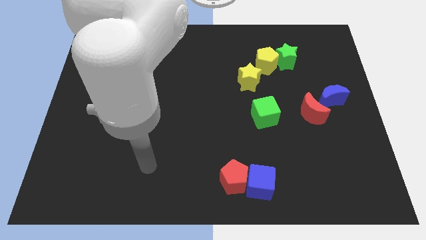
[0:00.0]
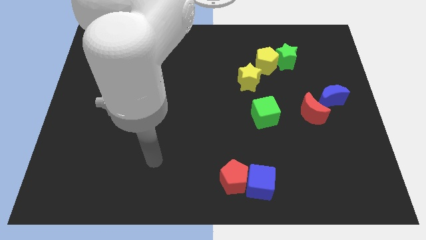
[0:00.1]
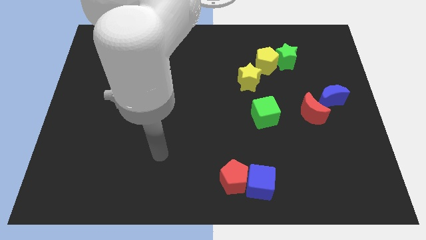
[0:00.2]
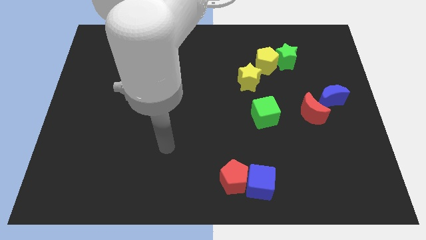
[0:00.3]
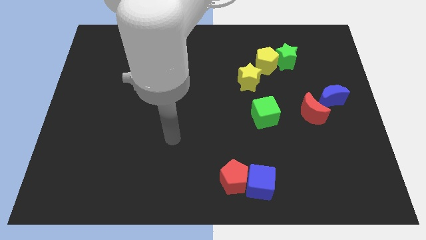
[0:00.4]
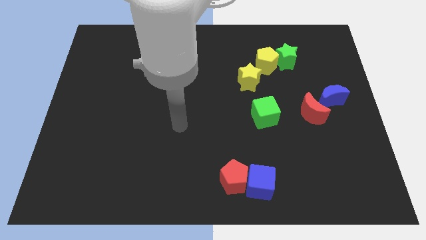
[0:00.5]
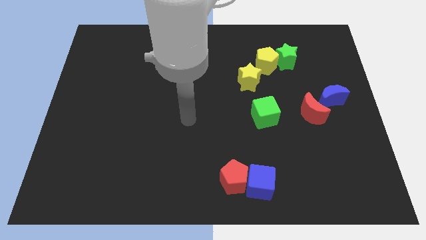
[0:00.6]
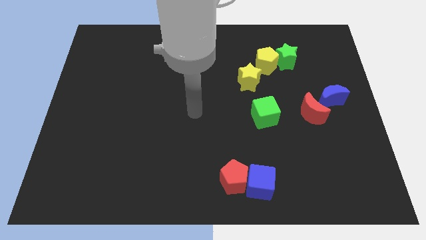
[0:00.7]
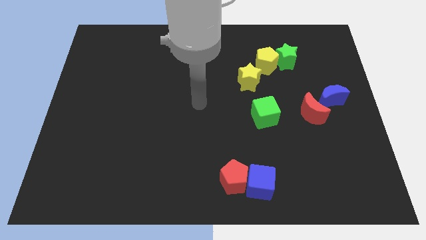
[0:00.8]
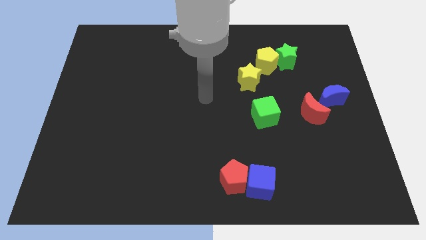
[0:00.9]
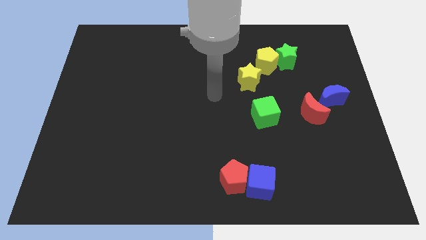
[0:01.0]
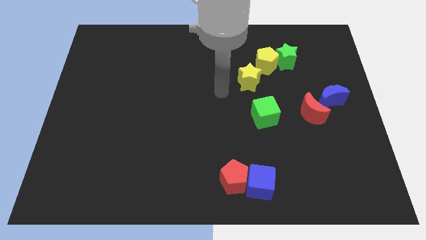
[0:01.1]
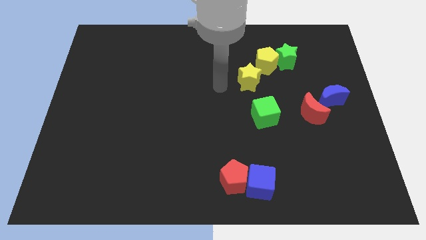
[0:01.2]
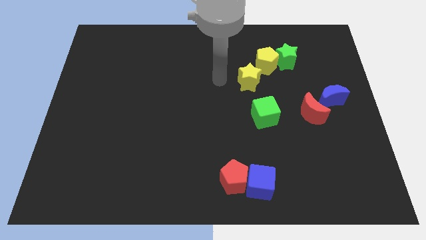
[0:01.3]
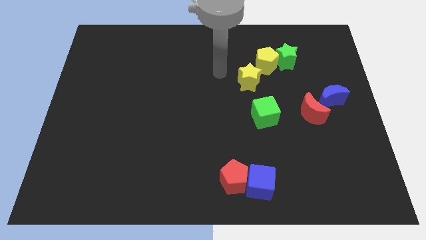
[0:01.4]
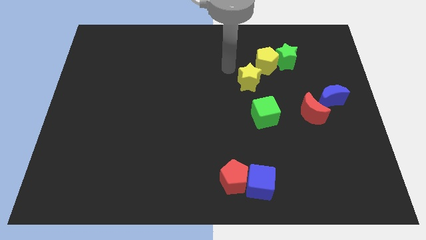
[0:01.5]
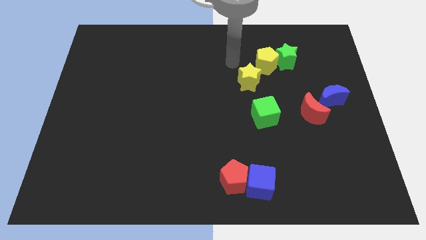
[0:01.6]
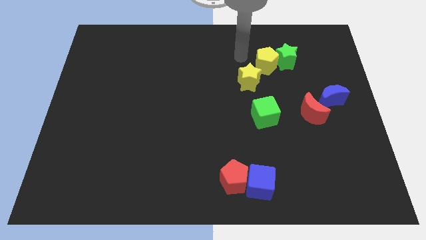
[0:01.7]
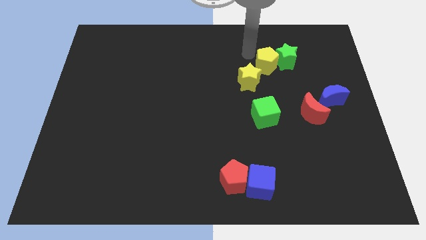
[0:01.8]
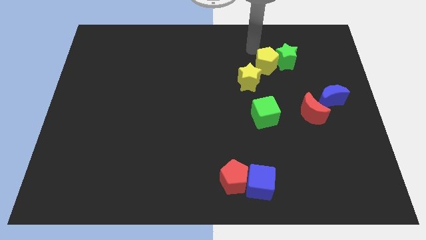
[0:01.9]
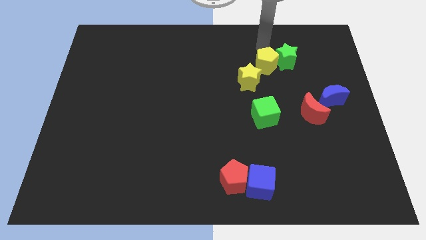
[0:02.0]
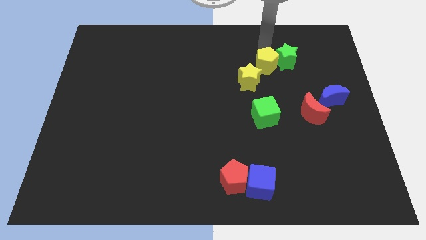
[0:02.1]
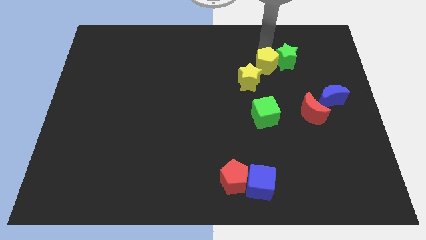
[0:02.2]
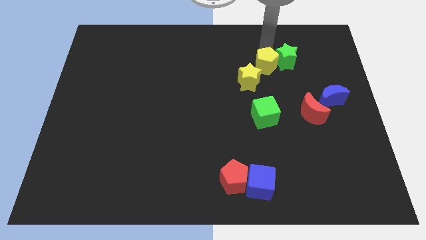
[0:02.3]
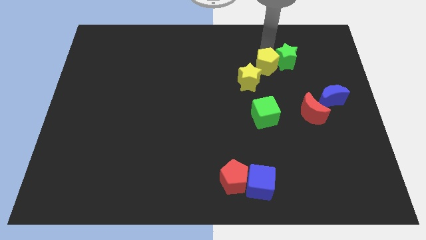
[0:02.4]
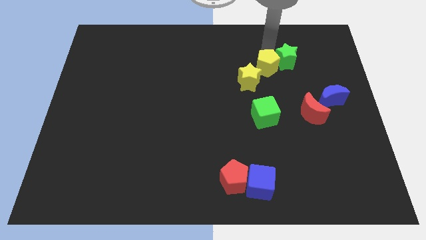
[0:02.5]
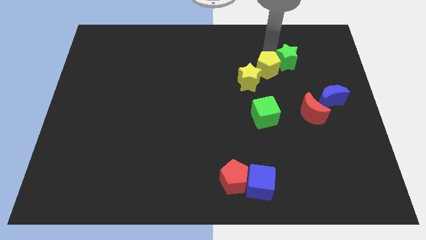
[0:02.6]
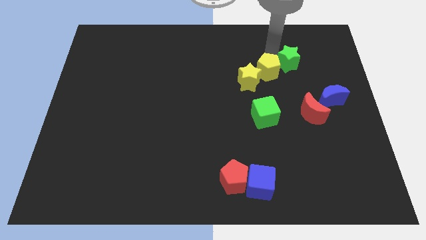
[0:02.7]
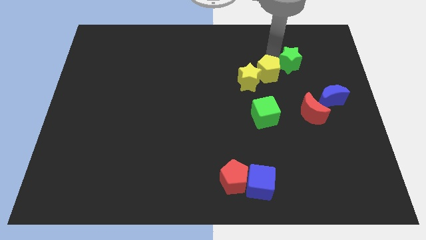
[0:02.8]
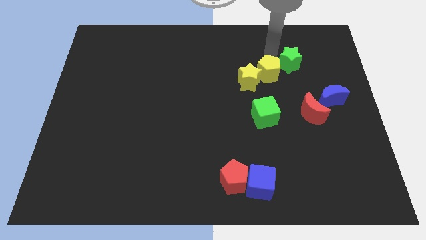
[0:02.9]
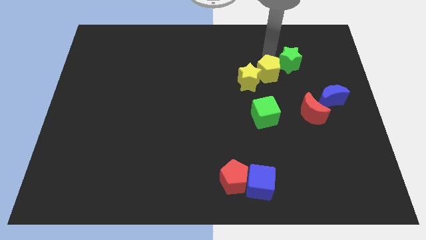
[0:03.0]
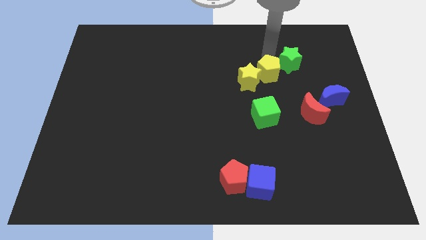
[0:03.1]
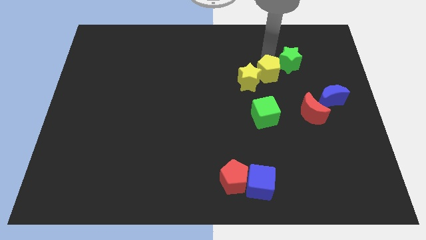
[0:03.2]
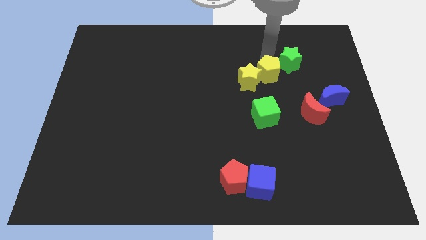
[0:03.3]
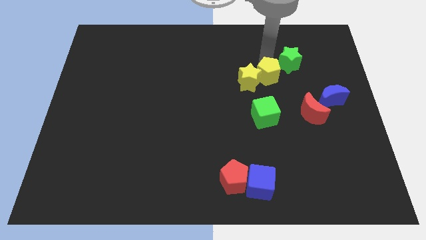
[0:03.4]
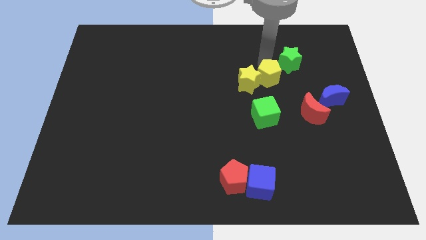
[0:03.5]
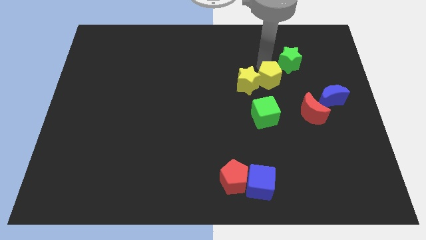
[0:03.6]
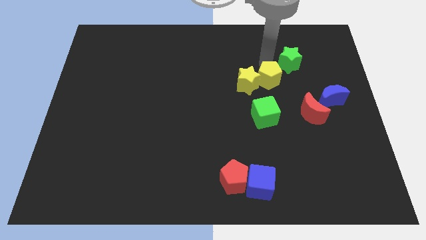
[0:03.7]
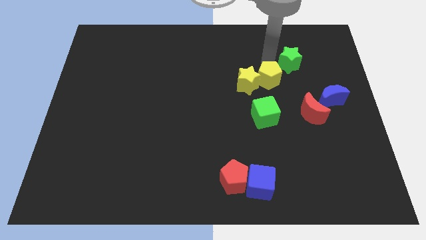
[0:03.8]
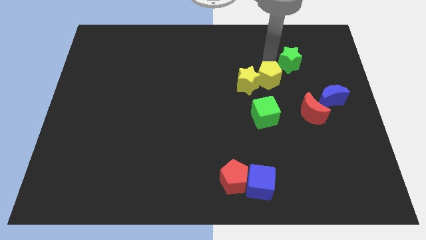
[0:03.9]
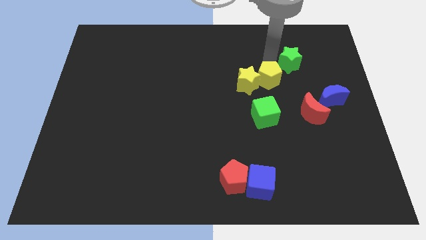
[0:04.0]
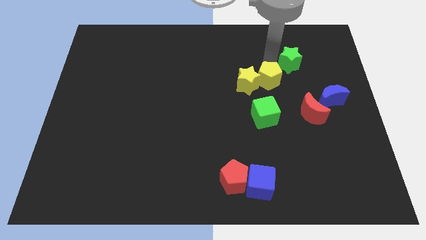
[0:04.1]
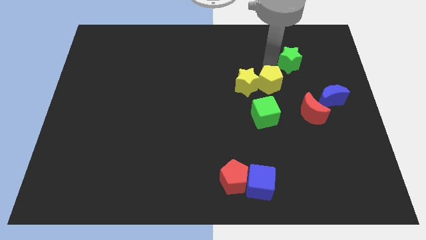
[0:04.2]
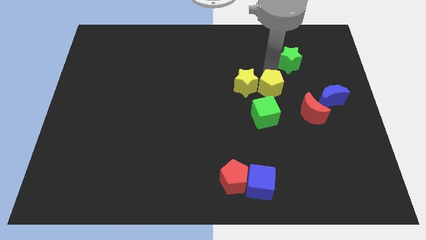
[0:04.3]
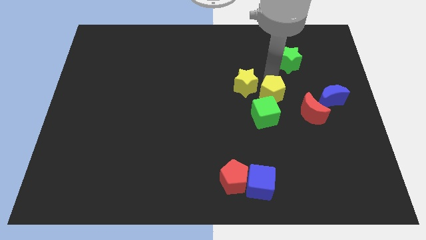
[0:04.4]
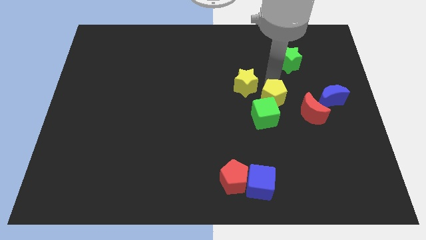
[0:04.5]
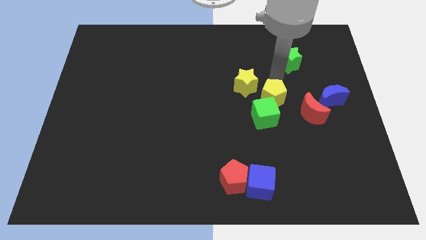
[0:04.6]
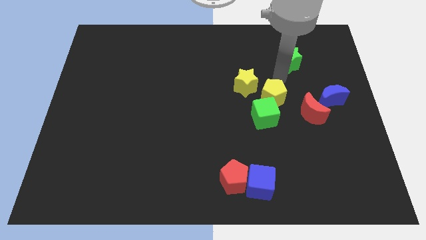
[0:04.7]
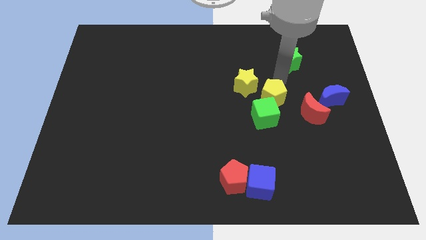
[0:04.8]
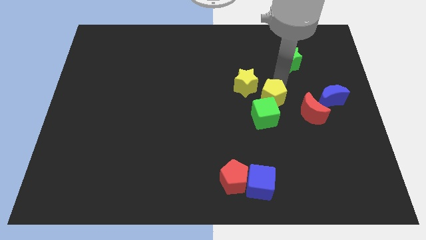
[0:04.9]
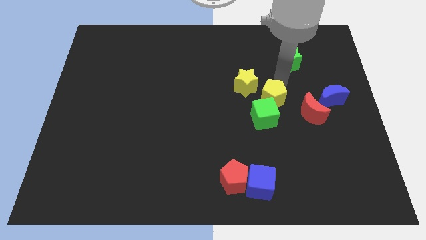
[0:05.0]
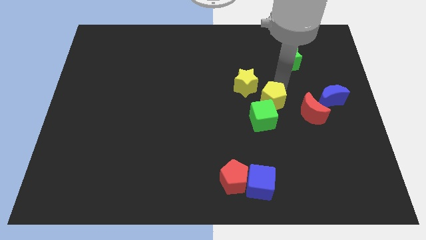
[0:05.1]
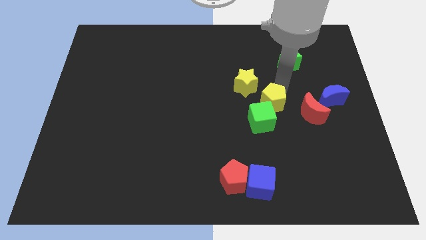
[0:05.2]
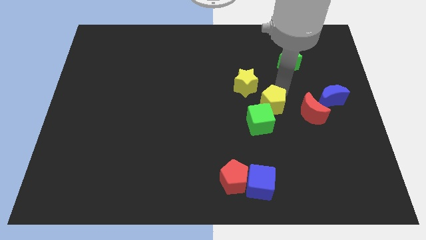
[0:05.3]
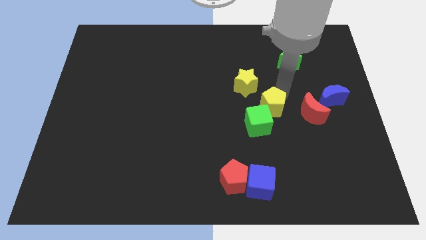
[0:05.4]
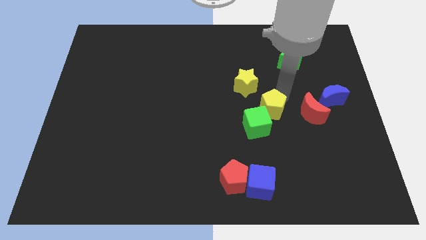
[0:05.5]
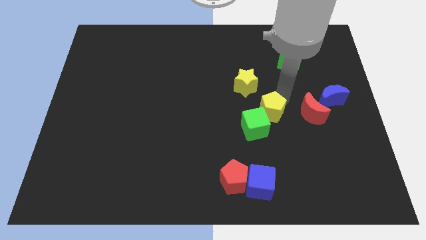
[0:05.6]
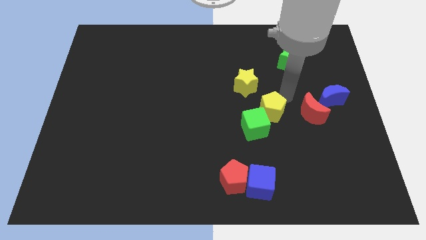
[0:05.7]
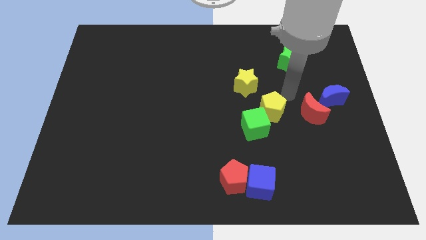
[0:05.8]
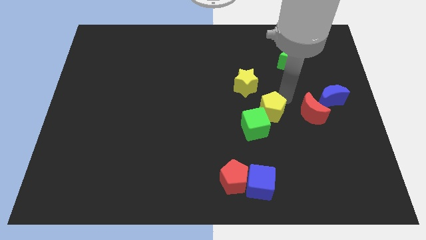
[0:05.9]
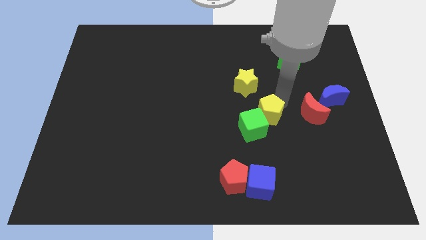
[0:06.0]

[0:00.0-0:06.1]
push the yellow pentagon towards the green cube

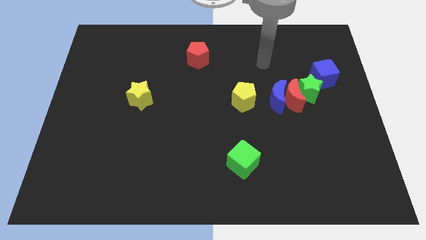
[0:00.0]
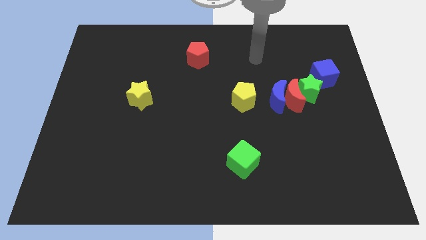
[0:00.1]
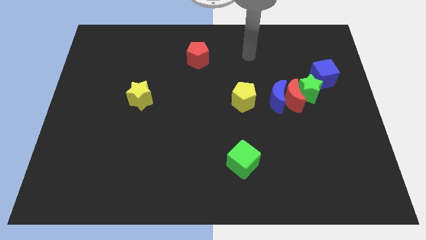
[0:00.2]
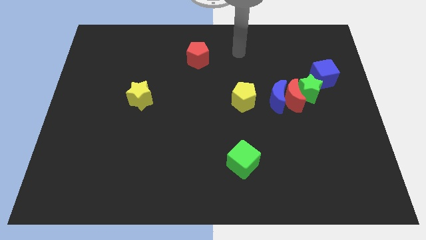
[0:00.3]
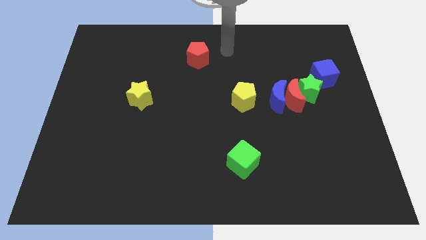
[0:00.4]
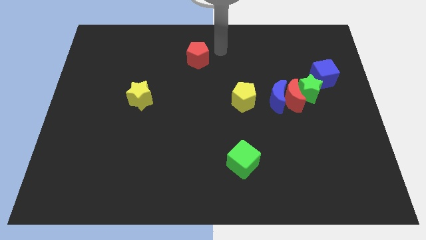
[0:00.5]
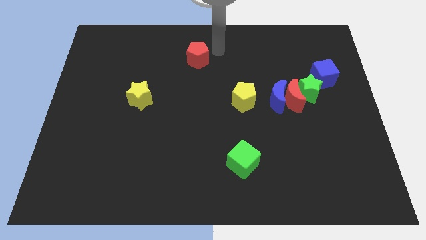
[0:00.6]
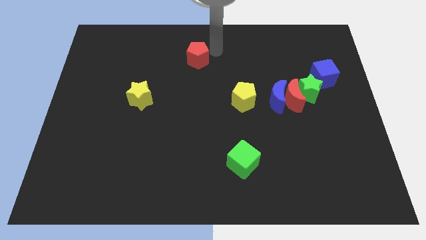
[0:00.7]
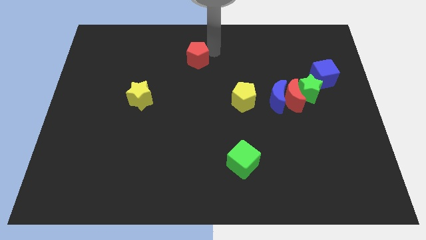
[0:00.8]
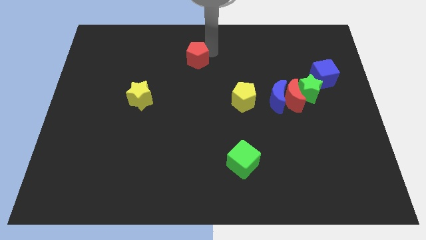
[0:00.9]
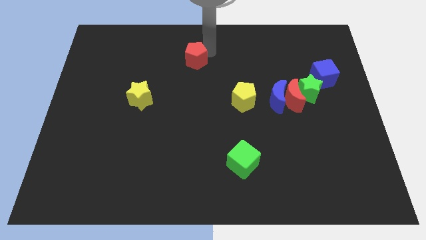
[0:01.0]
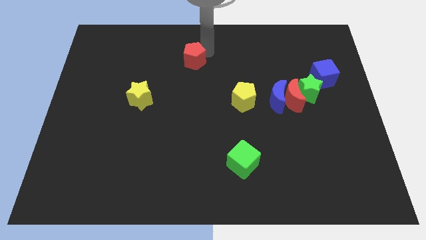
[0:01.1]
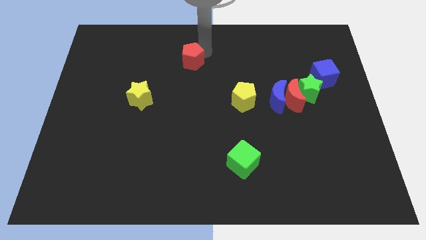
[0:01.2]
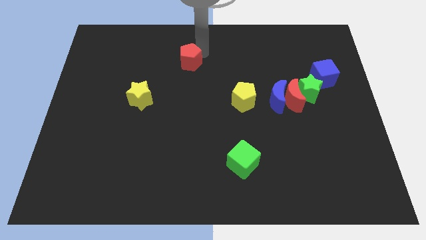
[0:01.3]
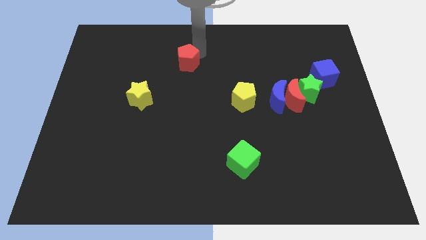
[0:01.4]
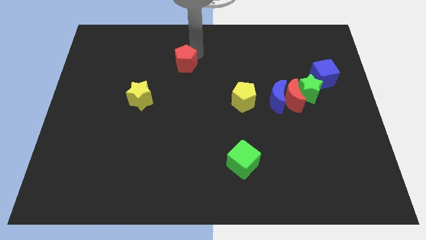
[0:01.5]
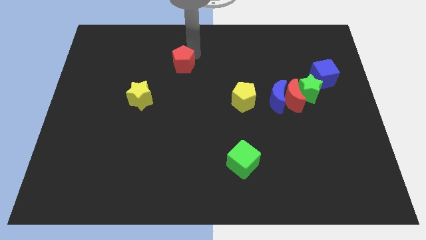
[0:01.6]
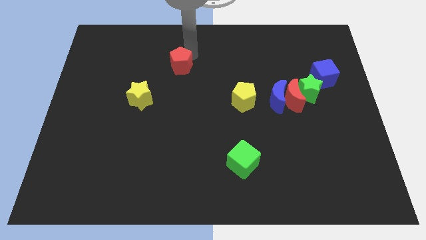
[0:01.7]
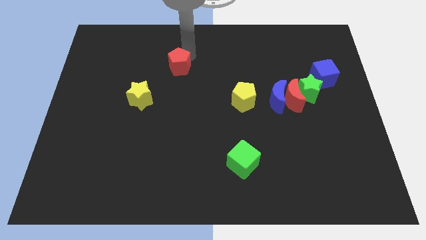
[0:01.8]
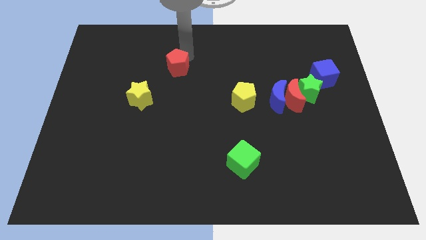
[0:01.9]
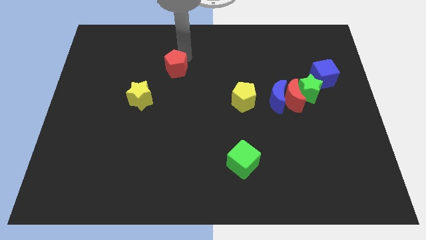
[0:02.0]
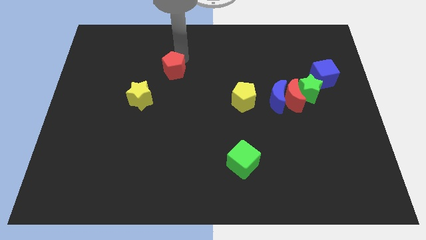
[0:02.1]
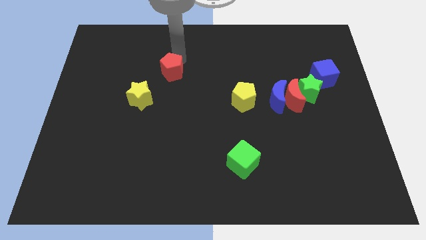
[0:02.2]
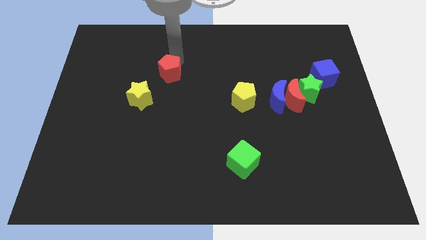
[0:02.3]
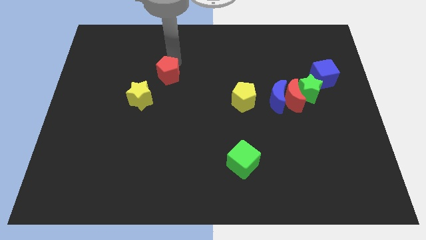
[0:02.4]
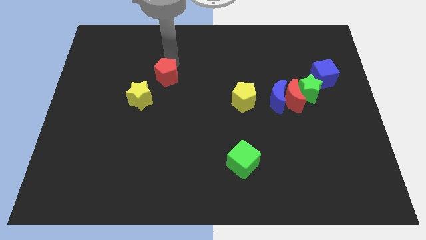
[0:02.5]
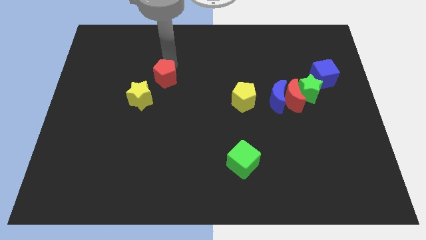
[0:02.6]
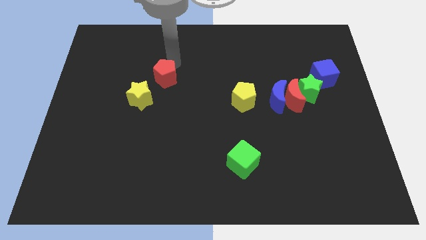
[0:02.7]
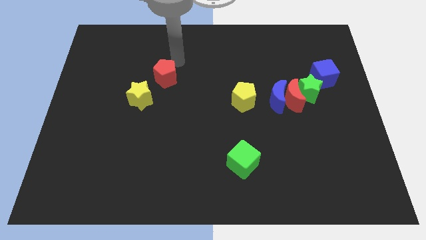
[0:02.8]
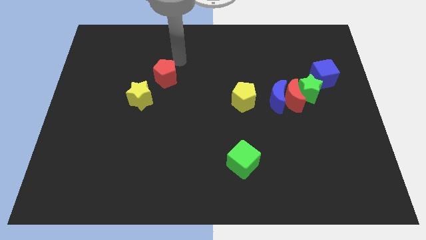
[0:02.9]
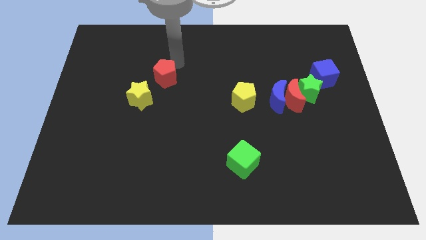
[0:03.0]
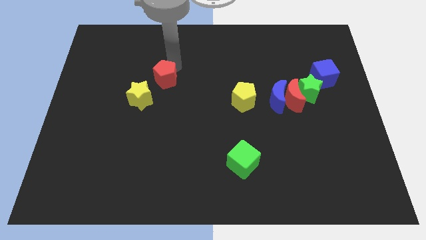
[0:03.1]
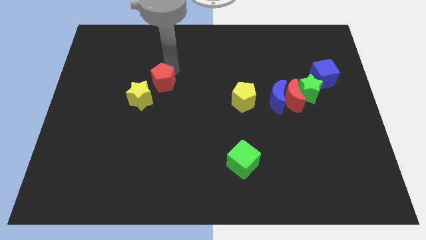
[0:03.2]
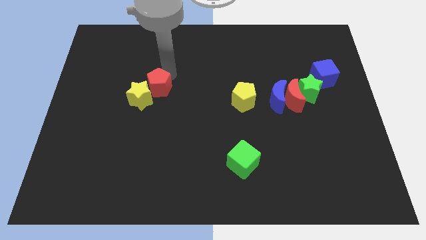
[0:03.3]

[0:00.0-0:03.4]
push the red pentagon towards the yellow star
